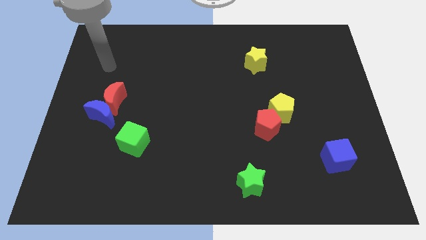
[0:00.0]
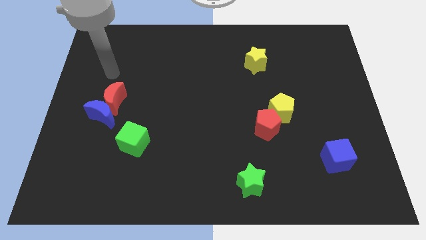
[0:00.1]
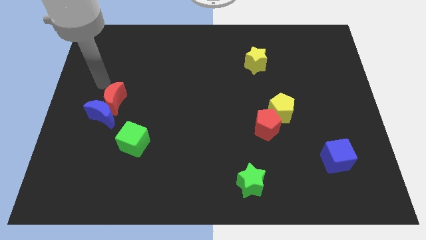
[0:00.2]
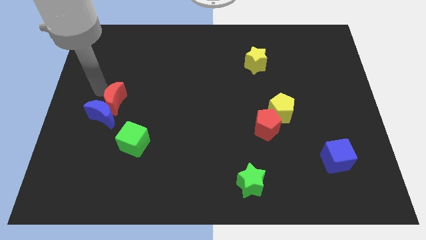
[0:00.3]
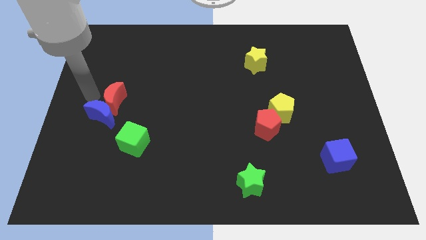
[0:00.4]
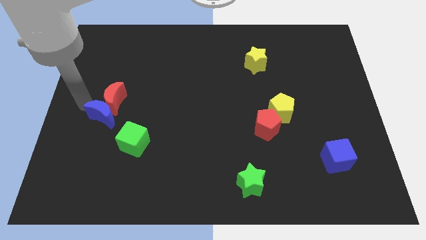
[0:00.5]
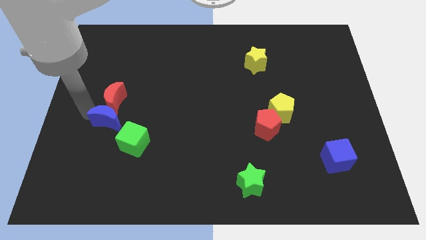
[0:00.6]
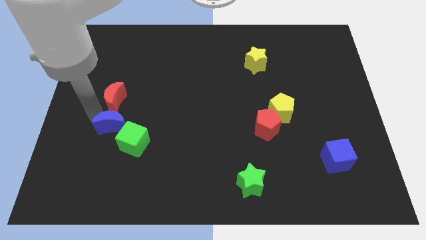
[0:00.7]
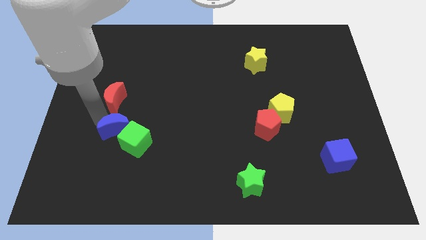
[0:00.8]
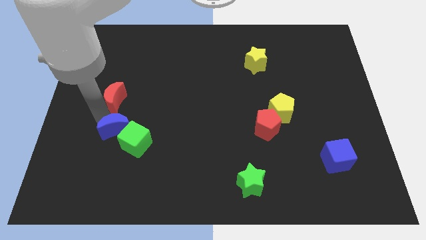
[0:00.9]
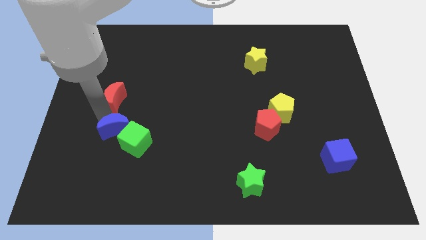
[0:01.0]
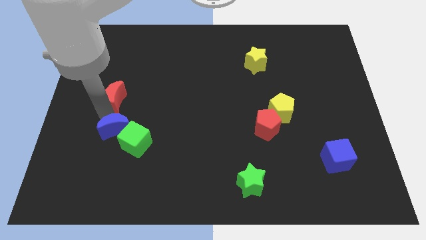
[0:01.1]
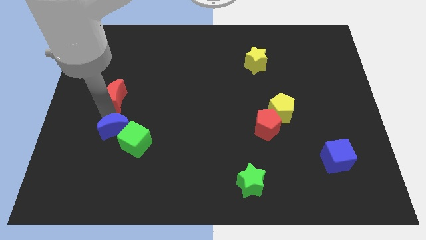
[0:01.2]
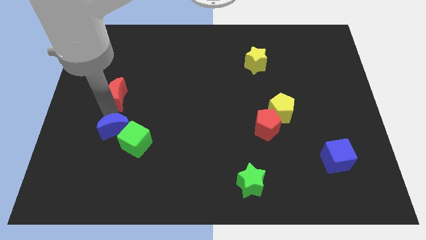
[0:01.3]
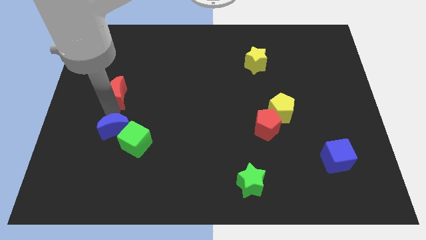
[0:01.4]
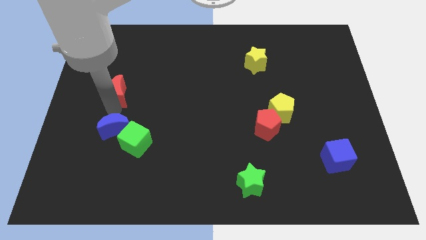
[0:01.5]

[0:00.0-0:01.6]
pull the red moon apart from the blue moon

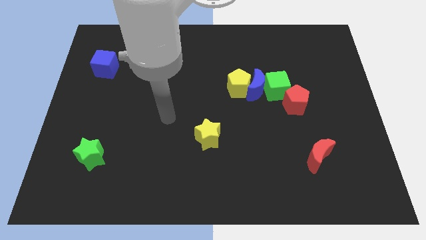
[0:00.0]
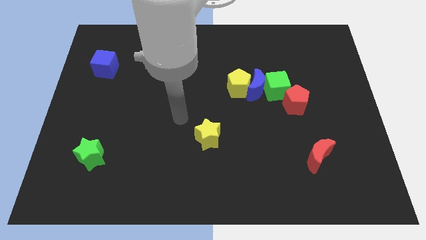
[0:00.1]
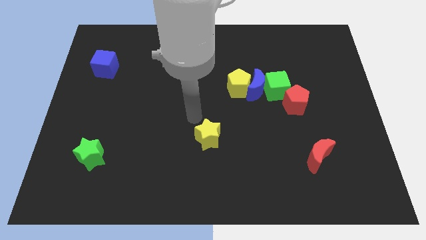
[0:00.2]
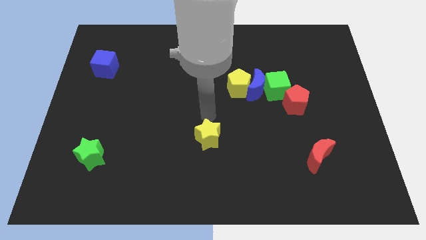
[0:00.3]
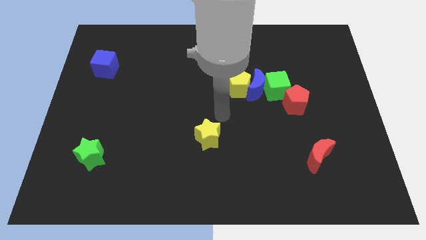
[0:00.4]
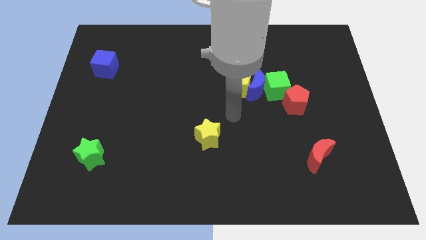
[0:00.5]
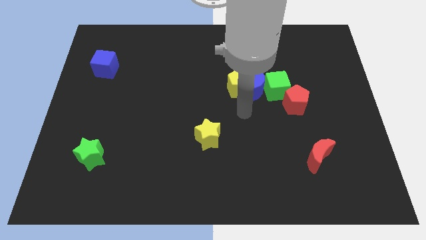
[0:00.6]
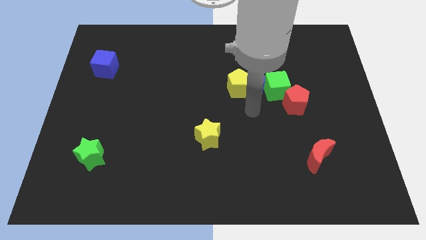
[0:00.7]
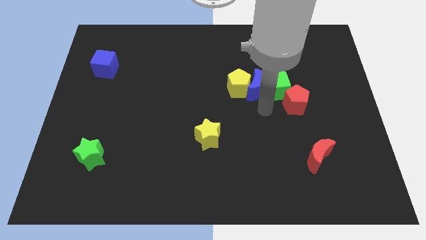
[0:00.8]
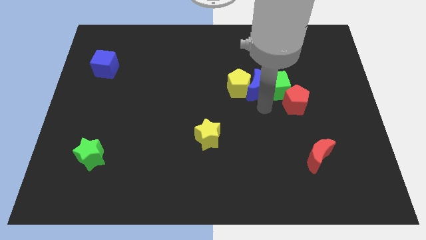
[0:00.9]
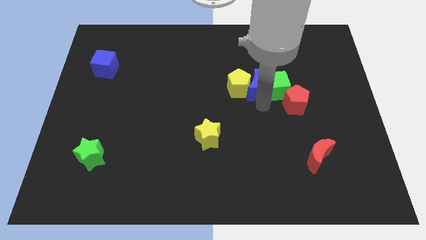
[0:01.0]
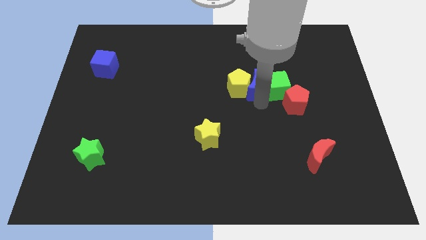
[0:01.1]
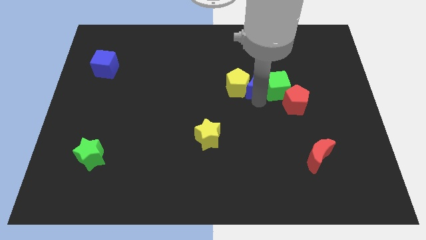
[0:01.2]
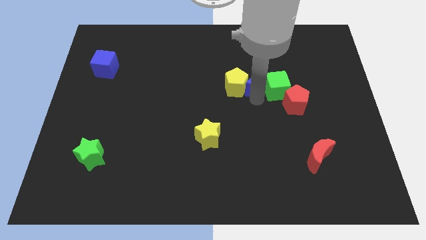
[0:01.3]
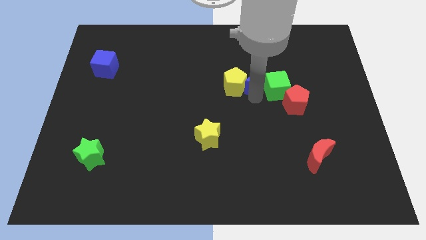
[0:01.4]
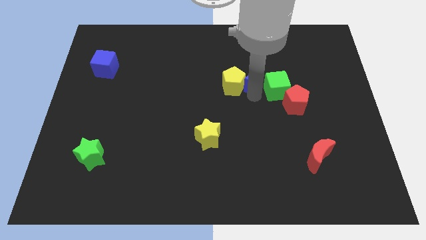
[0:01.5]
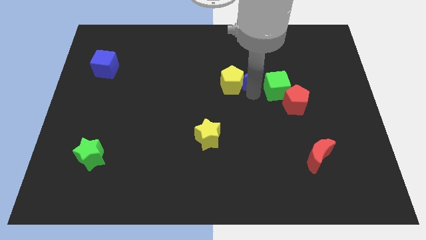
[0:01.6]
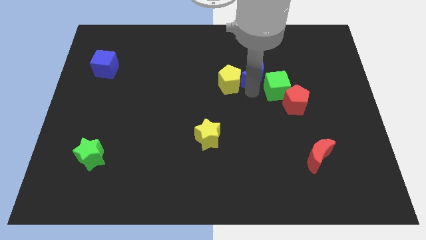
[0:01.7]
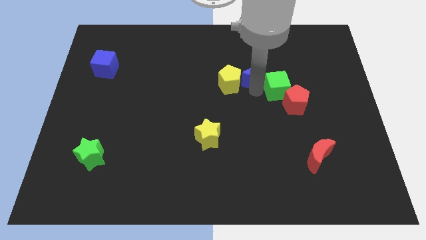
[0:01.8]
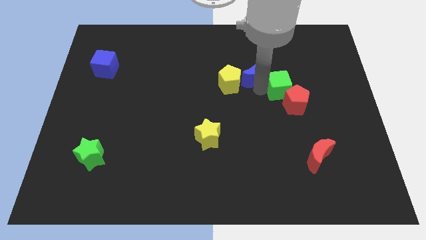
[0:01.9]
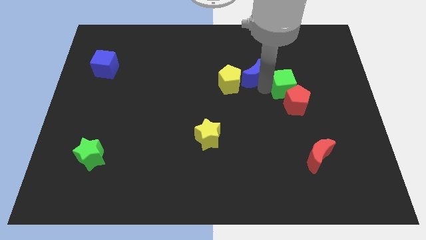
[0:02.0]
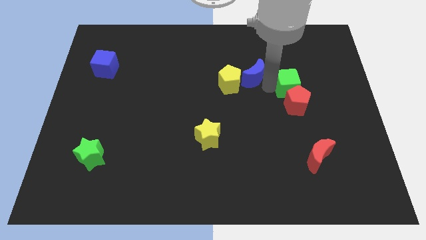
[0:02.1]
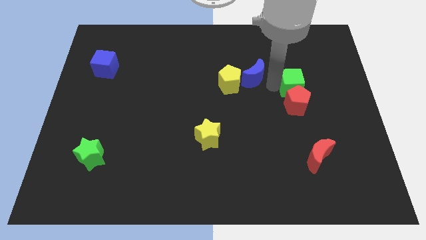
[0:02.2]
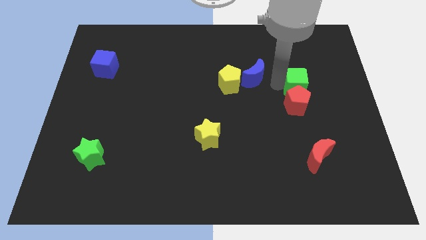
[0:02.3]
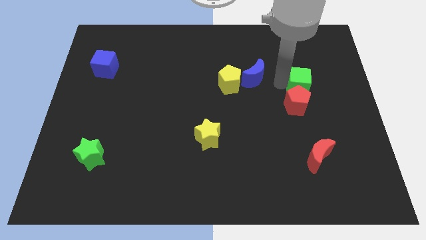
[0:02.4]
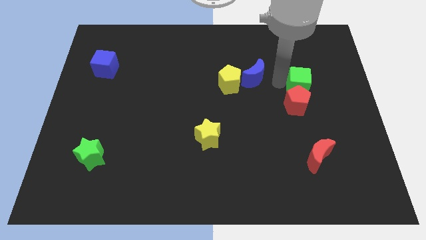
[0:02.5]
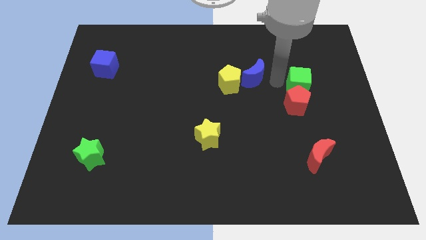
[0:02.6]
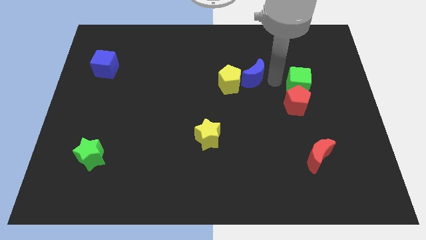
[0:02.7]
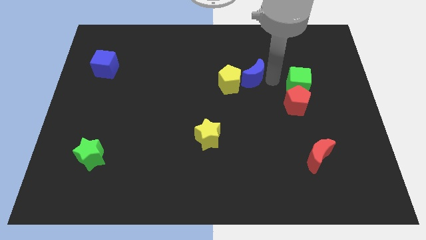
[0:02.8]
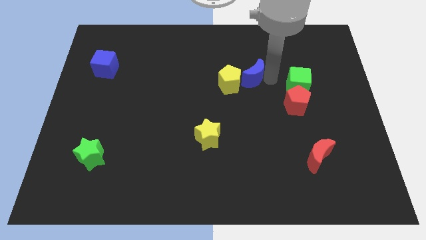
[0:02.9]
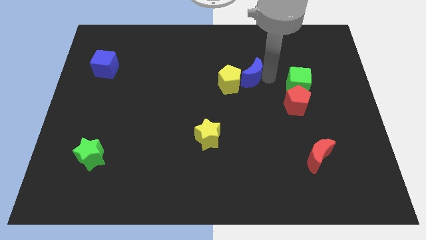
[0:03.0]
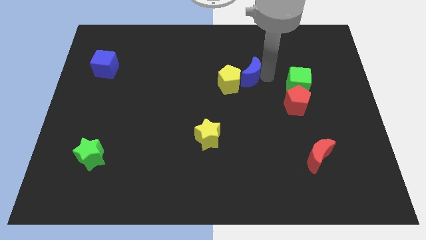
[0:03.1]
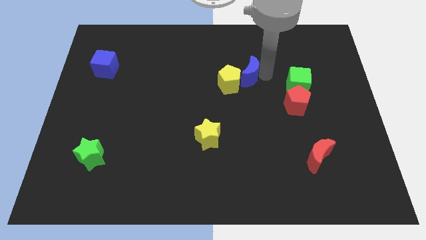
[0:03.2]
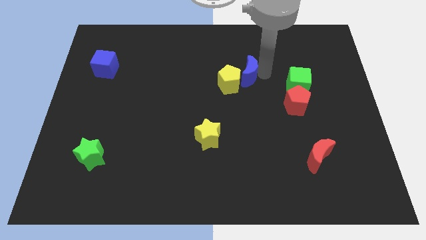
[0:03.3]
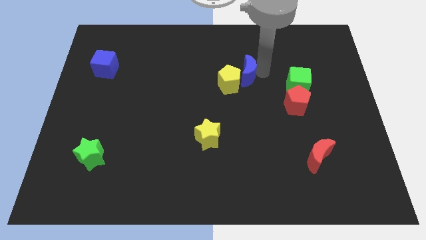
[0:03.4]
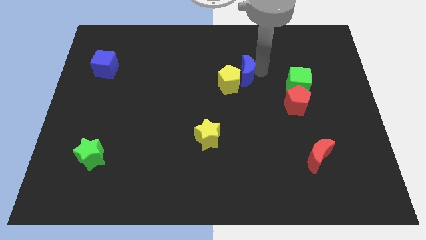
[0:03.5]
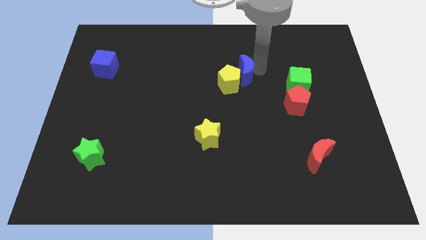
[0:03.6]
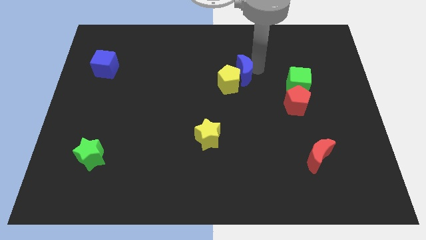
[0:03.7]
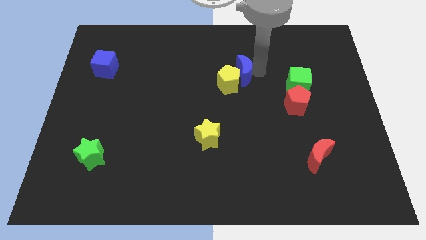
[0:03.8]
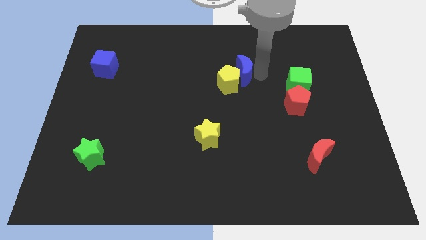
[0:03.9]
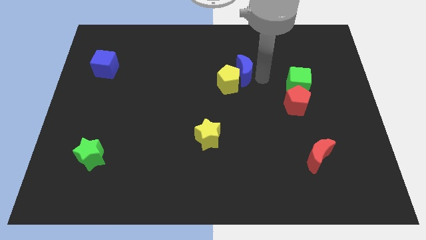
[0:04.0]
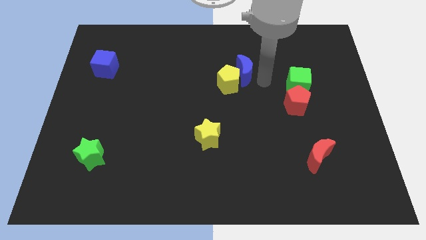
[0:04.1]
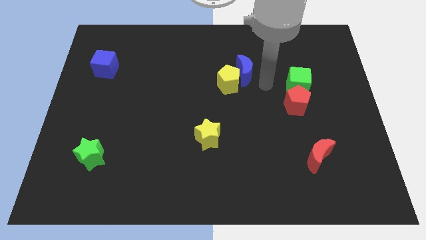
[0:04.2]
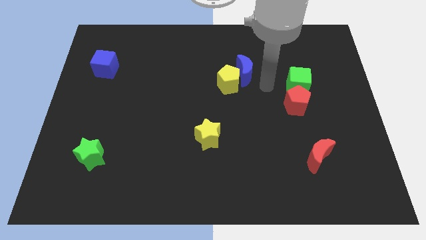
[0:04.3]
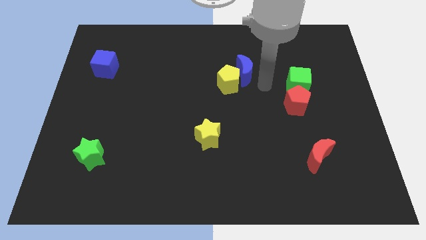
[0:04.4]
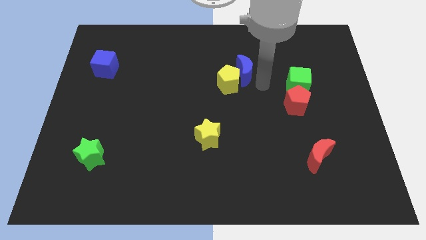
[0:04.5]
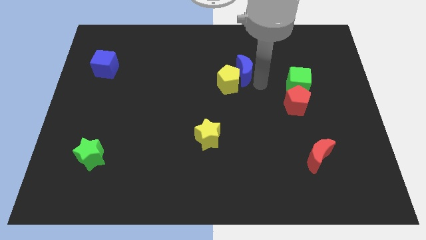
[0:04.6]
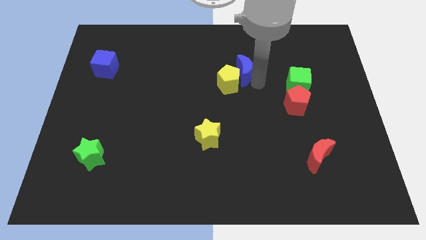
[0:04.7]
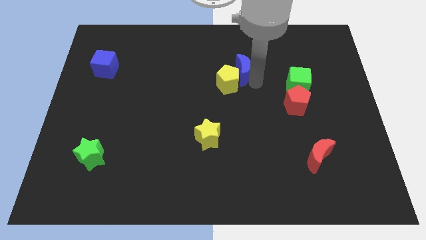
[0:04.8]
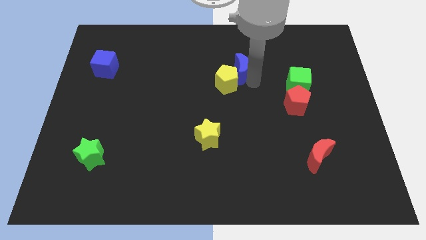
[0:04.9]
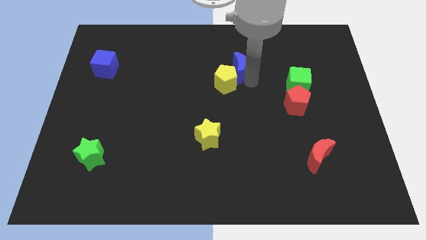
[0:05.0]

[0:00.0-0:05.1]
separate the blue moon from the clump

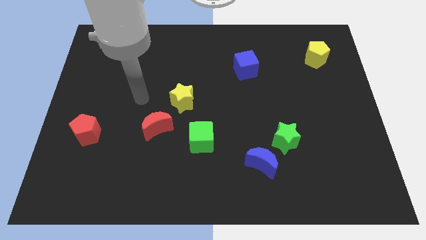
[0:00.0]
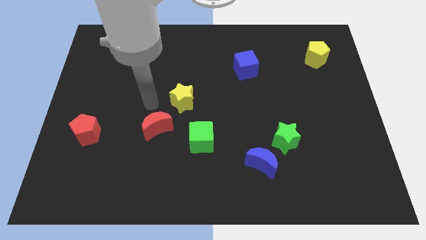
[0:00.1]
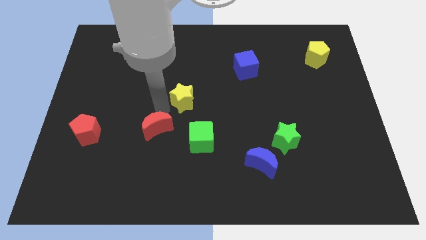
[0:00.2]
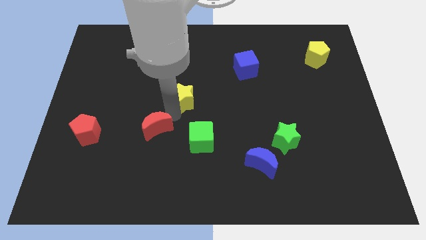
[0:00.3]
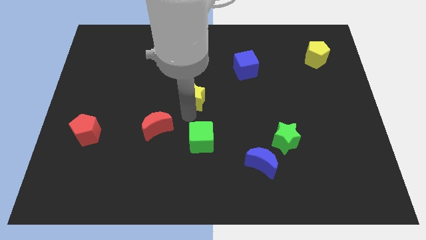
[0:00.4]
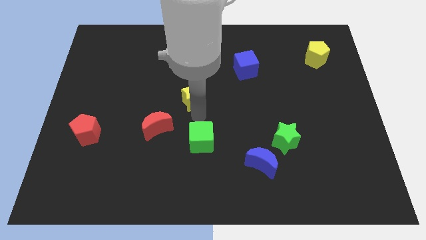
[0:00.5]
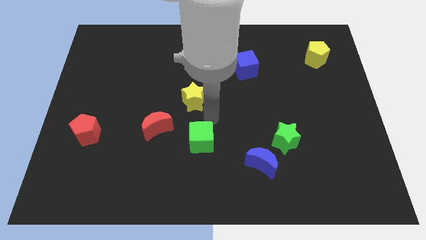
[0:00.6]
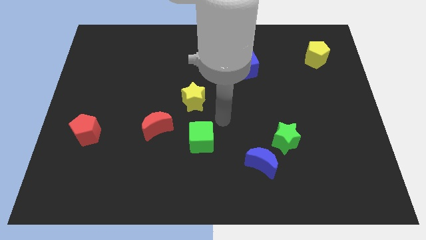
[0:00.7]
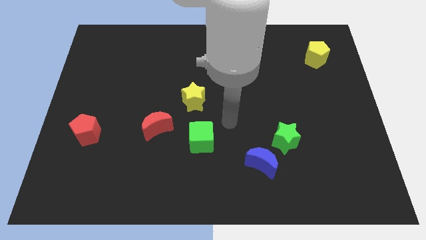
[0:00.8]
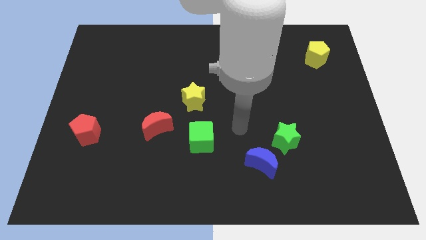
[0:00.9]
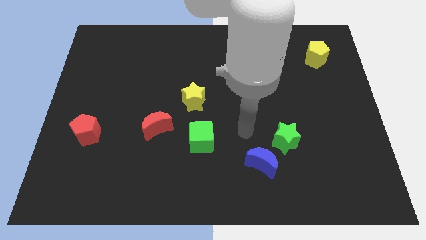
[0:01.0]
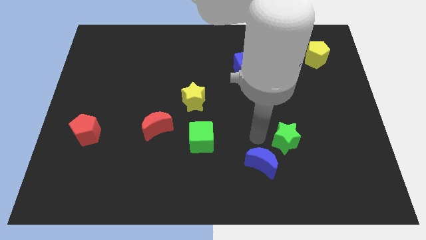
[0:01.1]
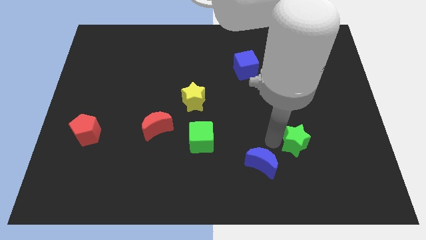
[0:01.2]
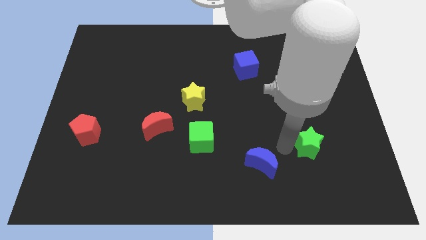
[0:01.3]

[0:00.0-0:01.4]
move the blue moon away from the green star

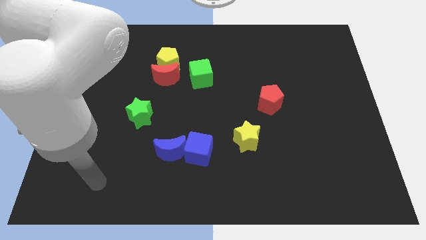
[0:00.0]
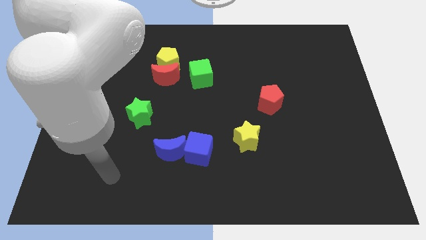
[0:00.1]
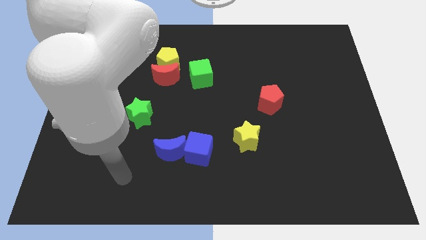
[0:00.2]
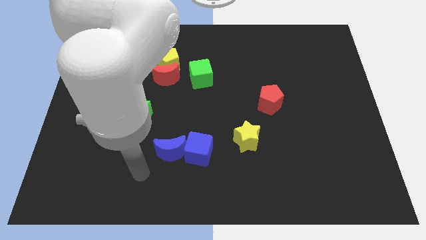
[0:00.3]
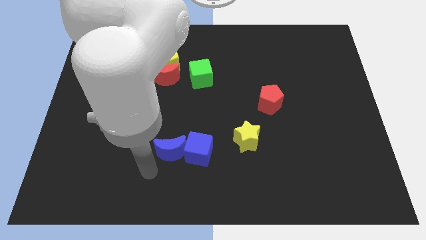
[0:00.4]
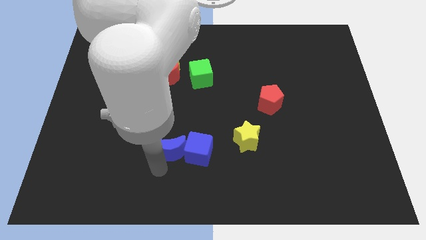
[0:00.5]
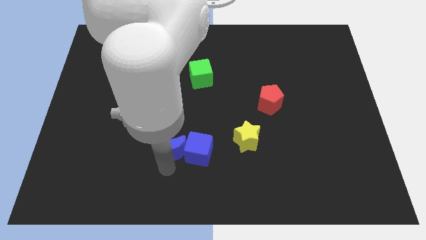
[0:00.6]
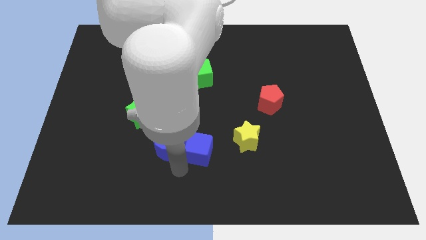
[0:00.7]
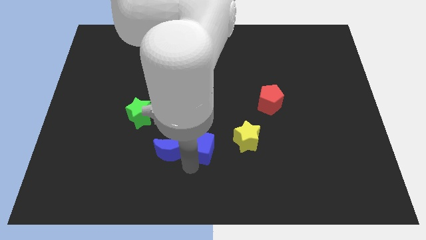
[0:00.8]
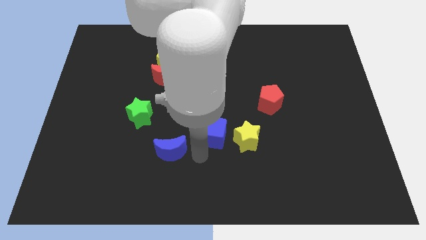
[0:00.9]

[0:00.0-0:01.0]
separate the blue moon from the blue cube

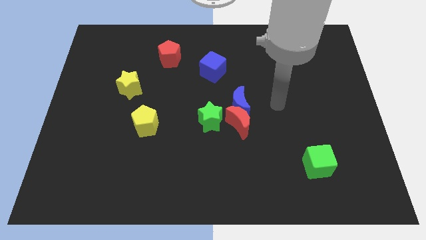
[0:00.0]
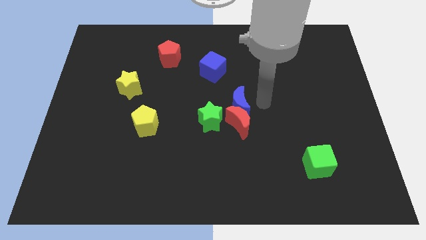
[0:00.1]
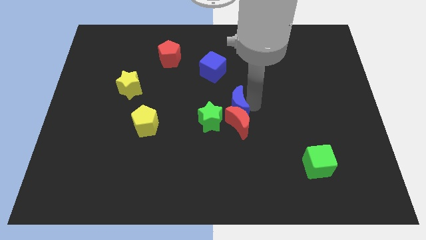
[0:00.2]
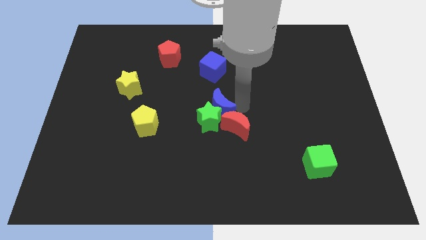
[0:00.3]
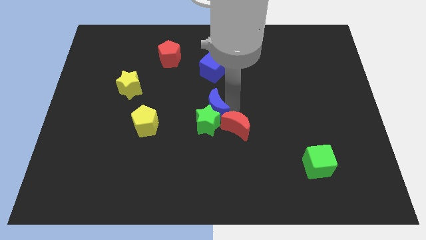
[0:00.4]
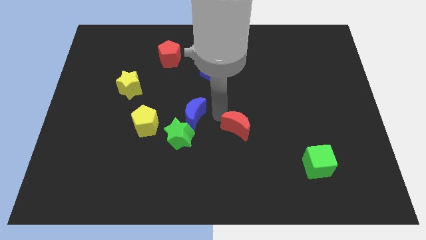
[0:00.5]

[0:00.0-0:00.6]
move the red moon away from the blue moon and green star
